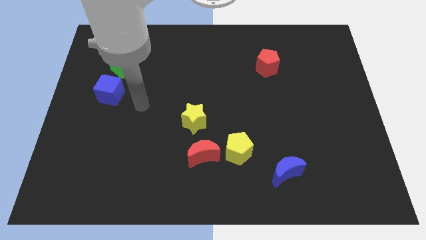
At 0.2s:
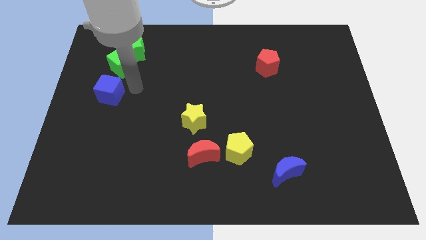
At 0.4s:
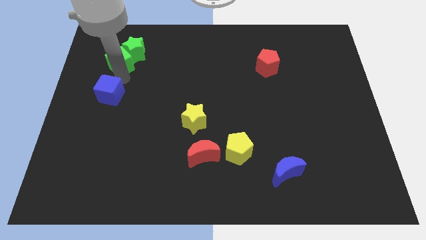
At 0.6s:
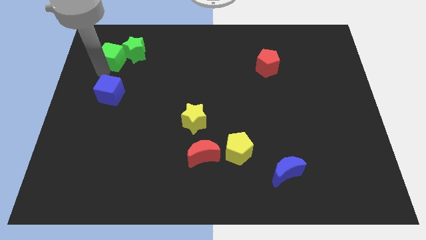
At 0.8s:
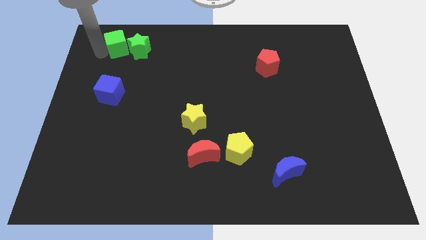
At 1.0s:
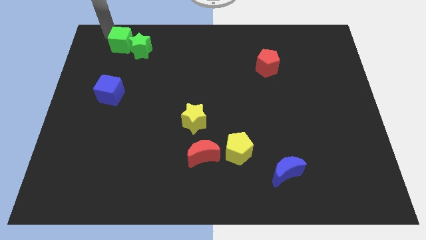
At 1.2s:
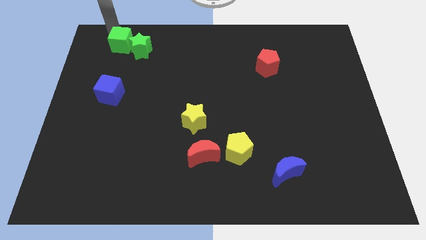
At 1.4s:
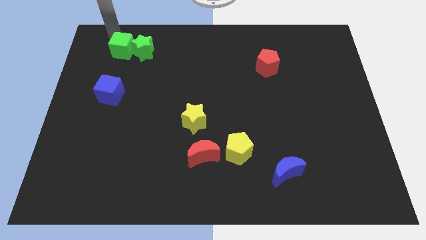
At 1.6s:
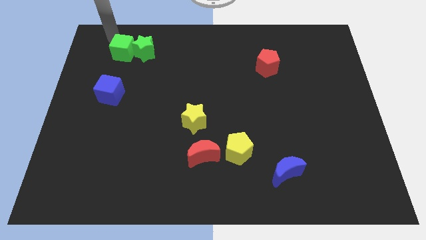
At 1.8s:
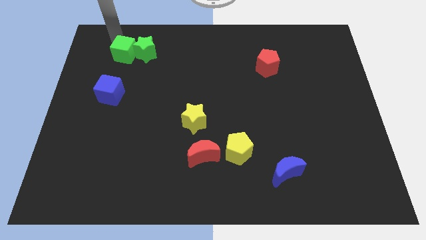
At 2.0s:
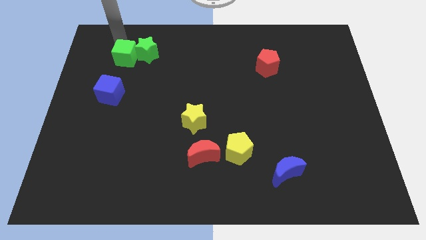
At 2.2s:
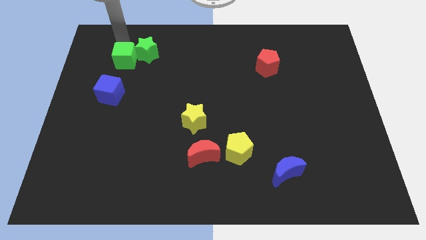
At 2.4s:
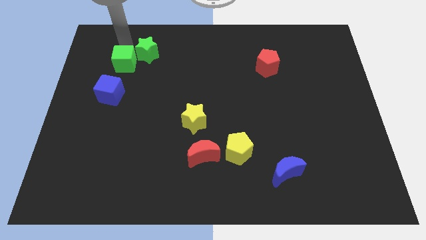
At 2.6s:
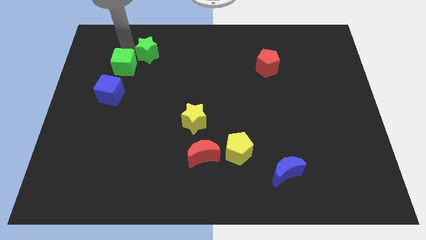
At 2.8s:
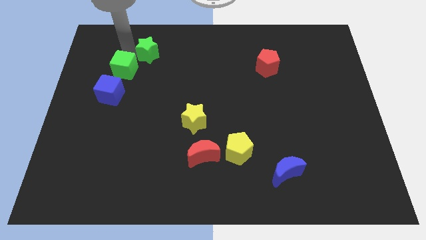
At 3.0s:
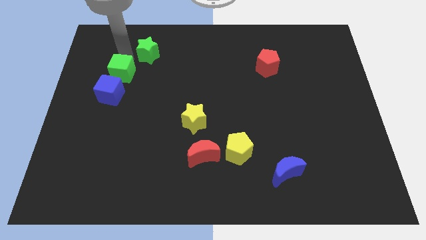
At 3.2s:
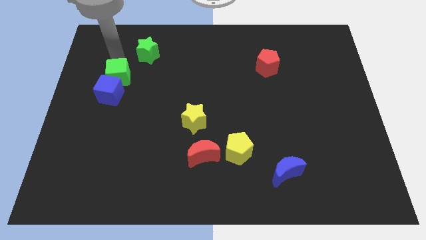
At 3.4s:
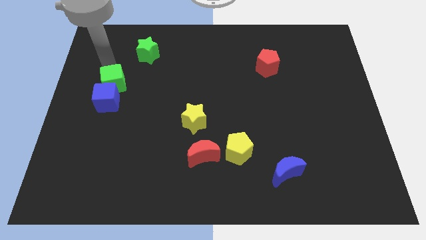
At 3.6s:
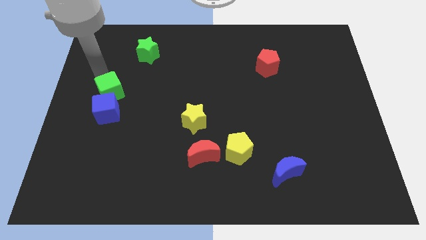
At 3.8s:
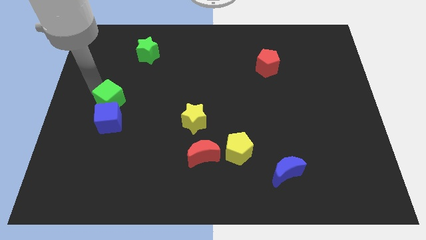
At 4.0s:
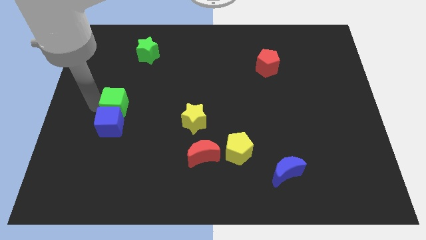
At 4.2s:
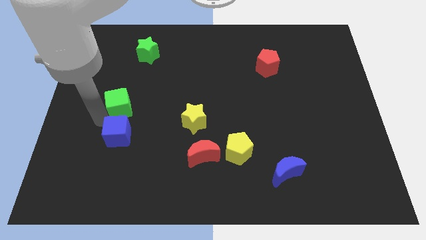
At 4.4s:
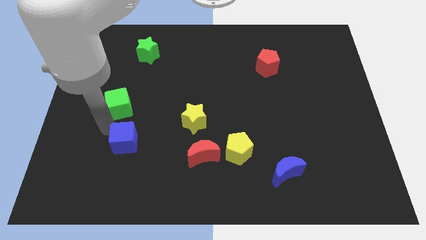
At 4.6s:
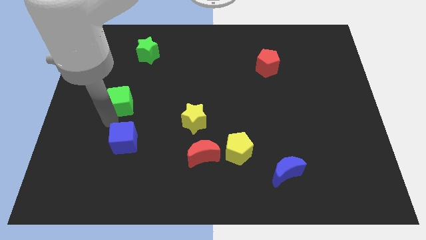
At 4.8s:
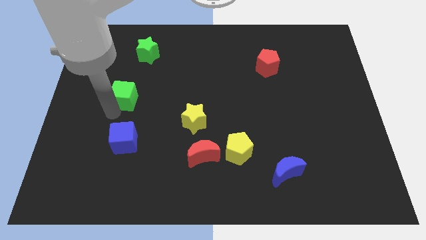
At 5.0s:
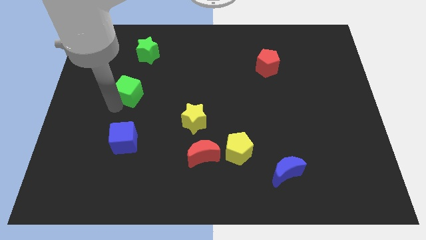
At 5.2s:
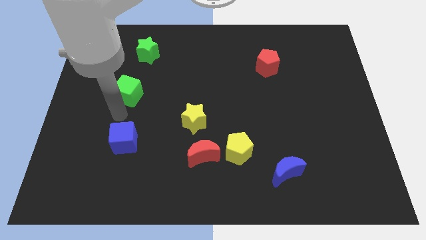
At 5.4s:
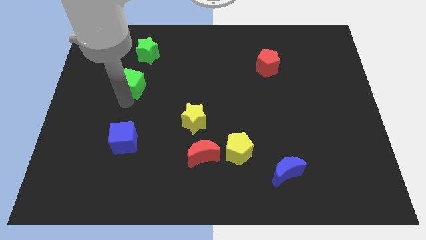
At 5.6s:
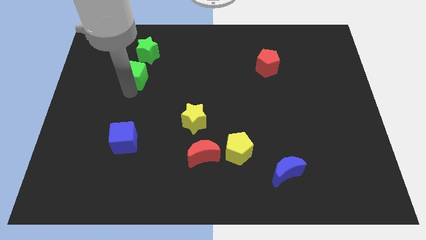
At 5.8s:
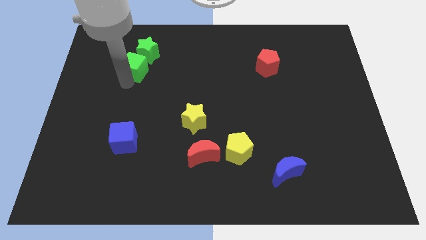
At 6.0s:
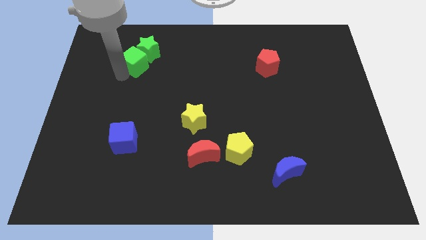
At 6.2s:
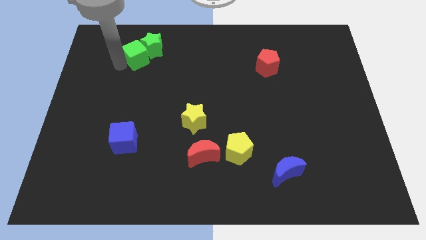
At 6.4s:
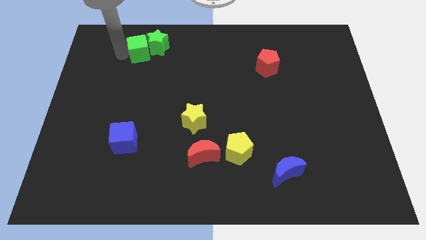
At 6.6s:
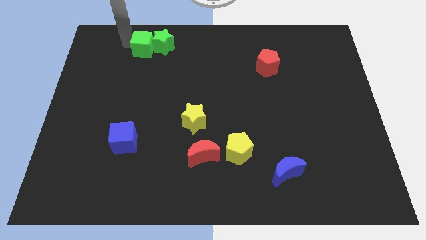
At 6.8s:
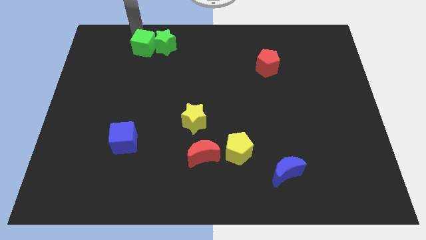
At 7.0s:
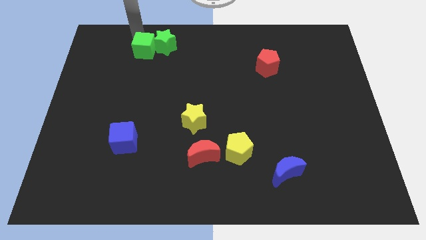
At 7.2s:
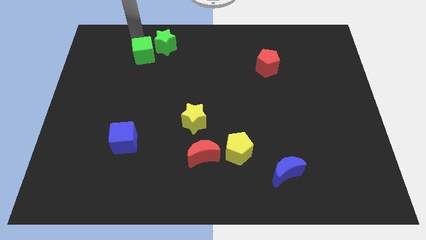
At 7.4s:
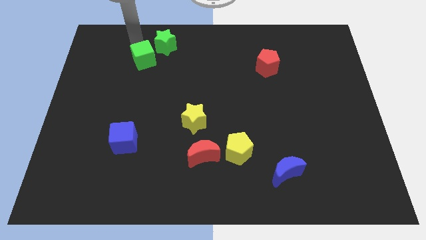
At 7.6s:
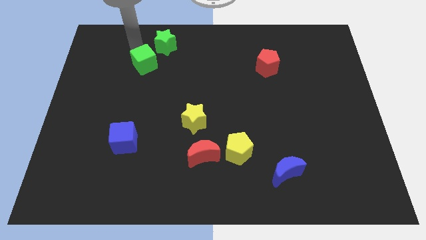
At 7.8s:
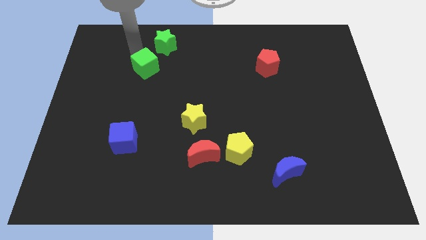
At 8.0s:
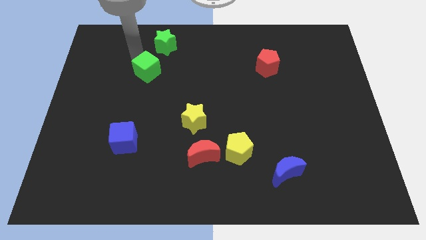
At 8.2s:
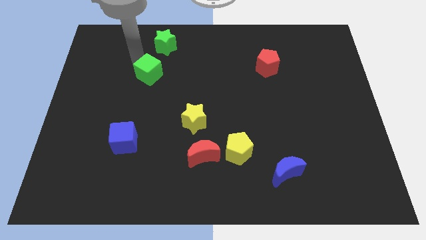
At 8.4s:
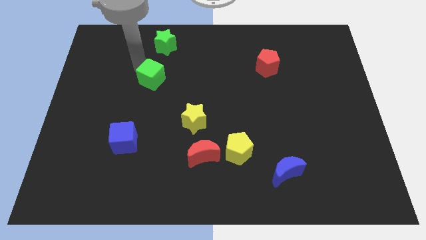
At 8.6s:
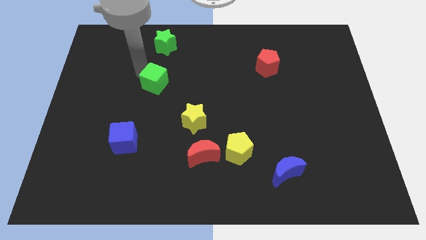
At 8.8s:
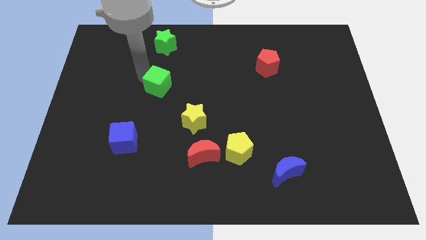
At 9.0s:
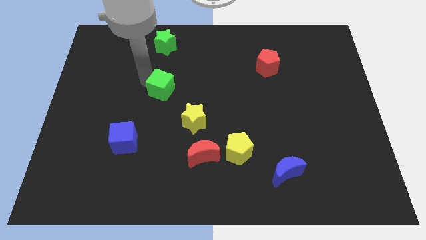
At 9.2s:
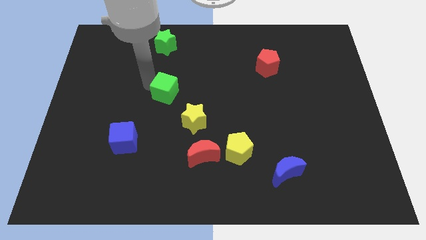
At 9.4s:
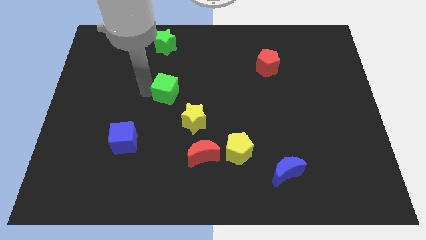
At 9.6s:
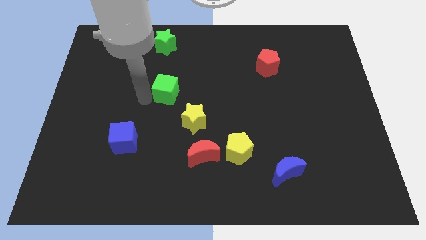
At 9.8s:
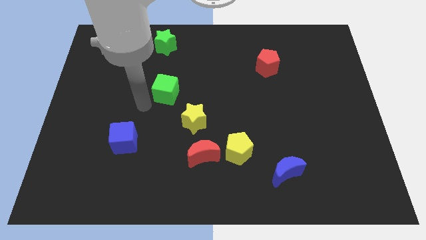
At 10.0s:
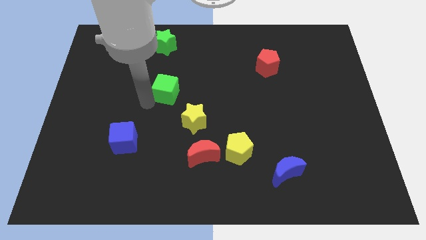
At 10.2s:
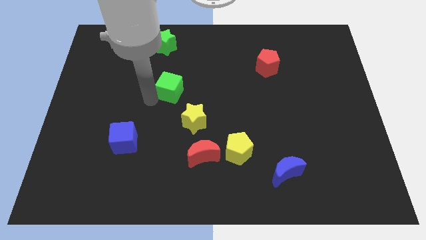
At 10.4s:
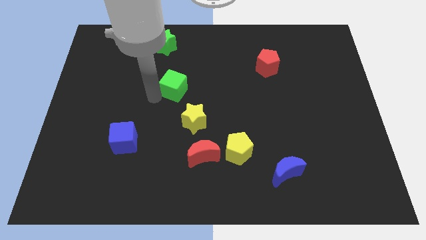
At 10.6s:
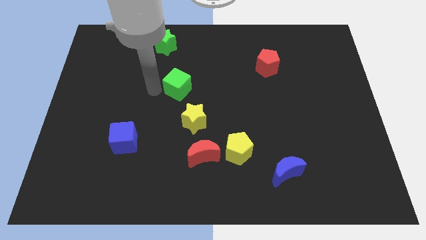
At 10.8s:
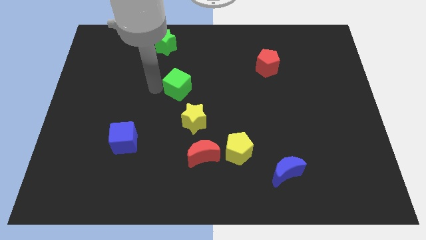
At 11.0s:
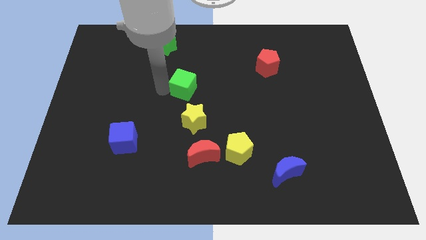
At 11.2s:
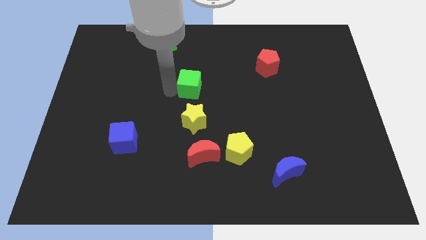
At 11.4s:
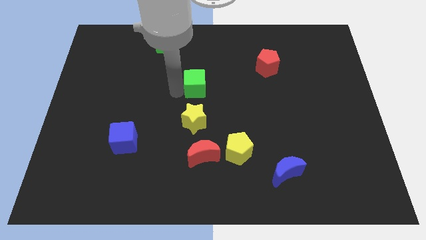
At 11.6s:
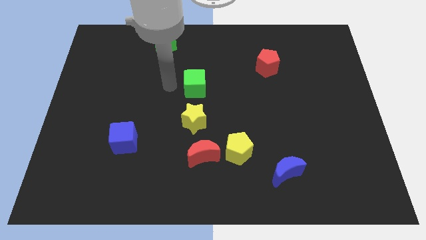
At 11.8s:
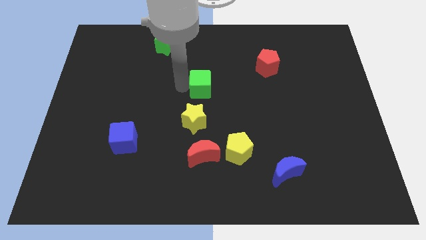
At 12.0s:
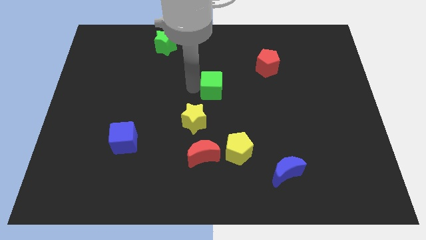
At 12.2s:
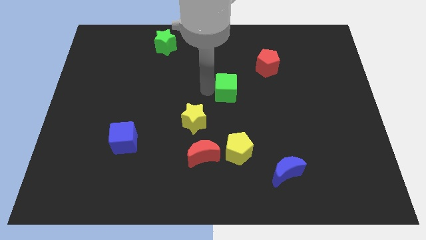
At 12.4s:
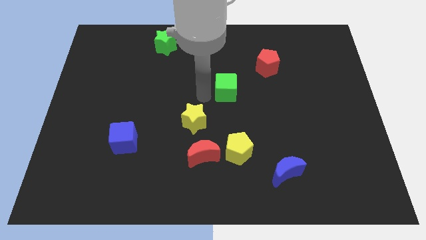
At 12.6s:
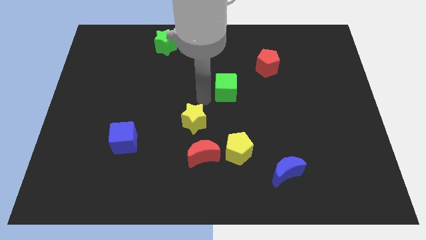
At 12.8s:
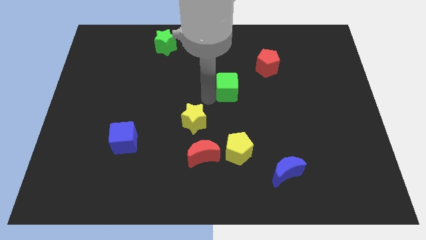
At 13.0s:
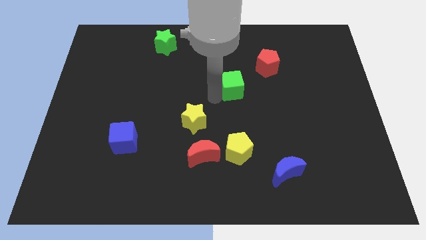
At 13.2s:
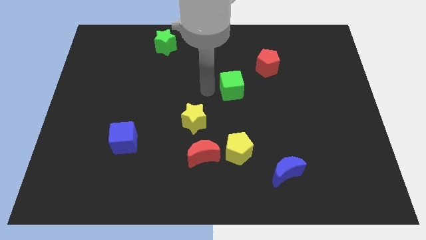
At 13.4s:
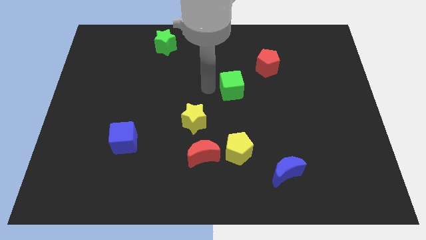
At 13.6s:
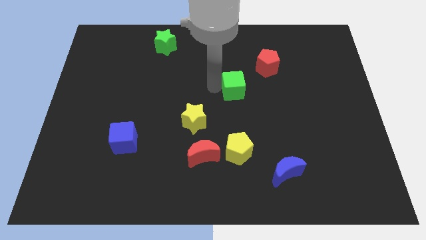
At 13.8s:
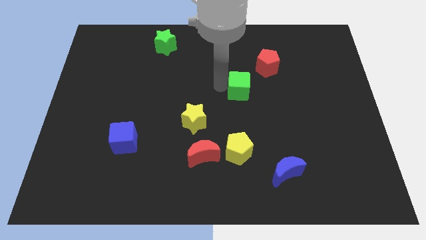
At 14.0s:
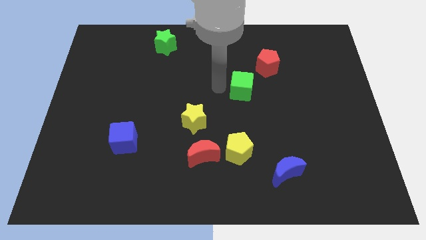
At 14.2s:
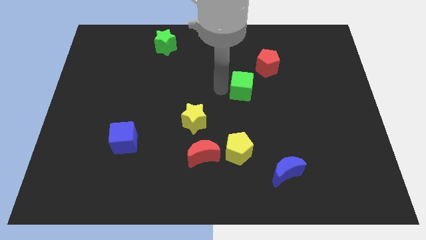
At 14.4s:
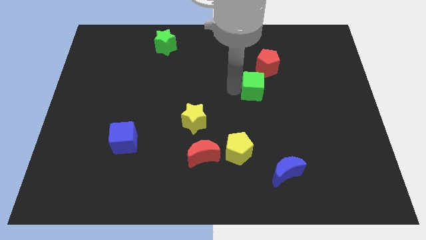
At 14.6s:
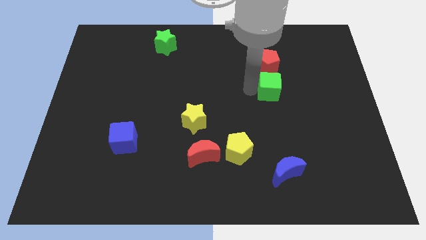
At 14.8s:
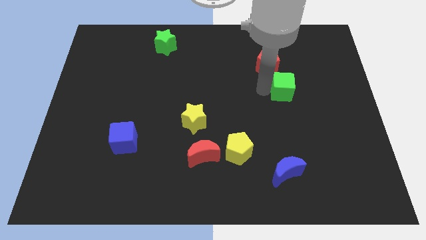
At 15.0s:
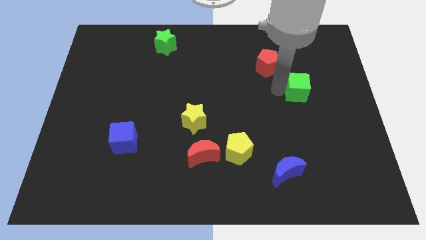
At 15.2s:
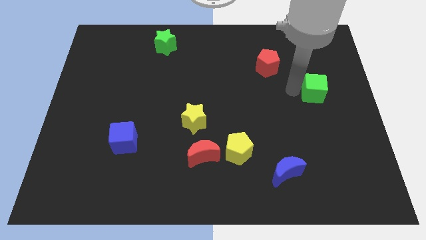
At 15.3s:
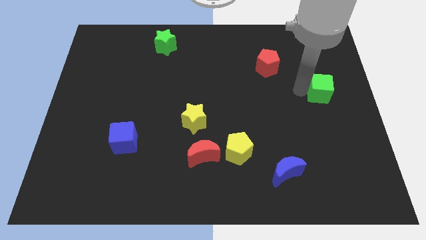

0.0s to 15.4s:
push the green cube to the right side
